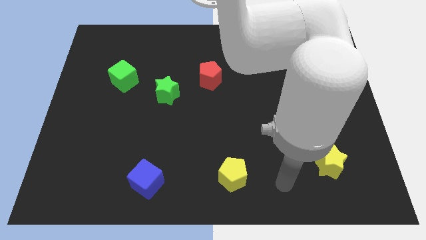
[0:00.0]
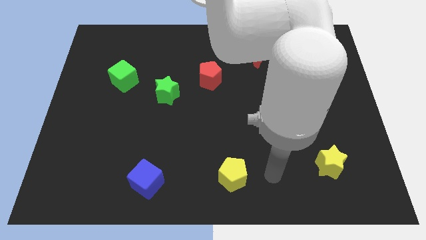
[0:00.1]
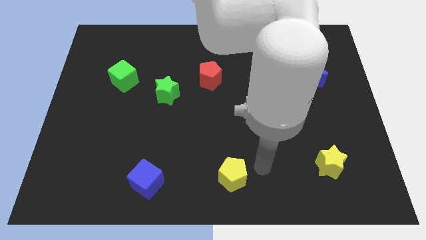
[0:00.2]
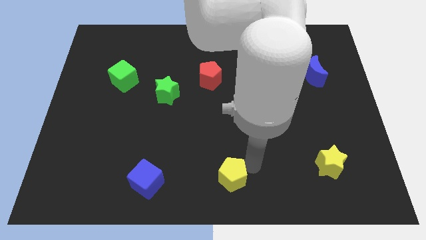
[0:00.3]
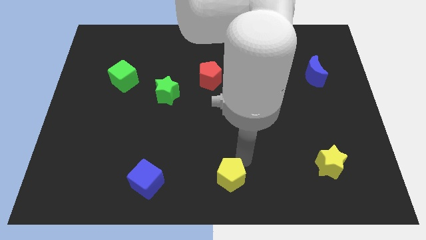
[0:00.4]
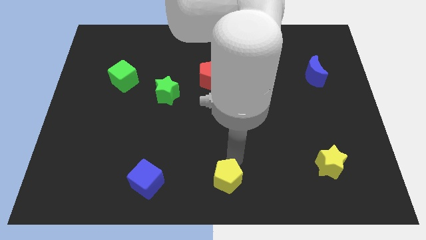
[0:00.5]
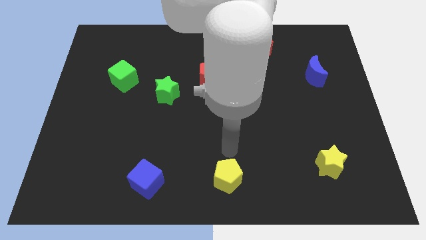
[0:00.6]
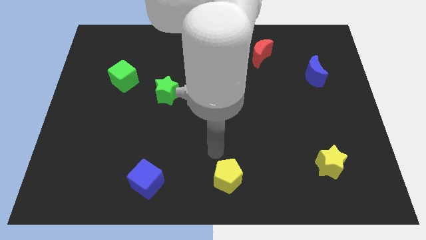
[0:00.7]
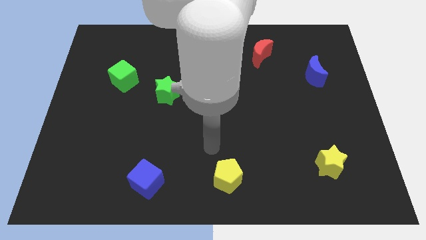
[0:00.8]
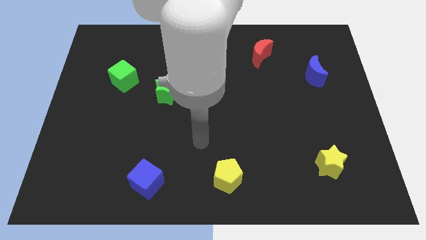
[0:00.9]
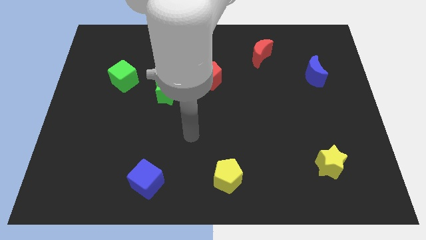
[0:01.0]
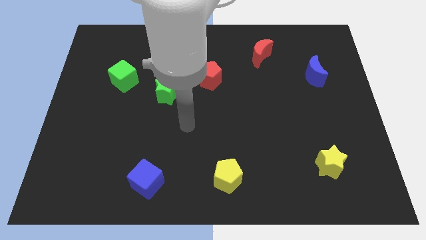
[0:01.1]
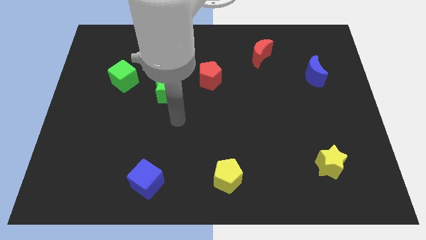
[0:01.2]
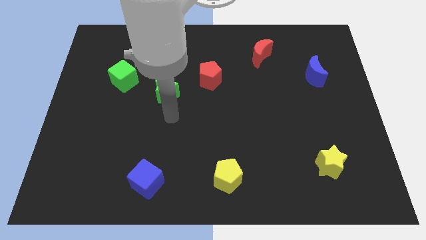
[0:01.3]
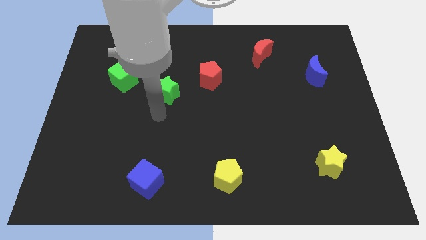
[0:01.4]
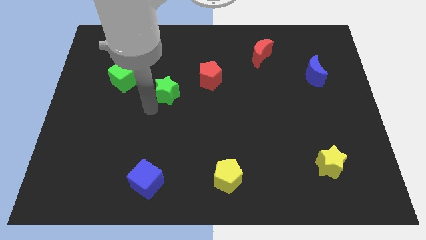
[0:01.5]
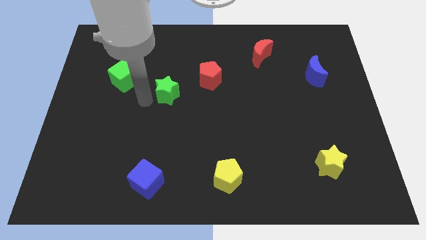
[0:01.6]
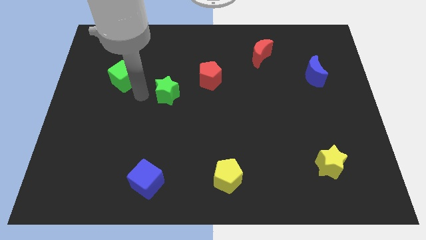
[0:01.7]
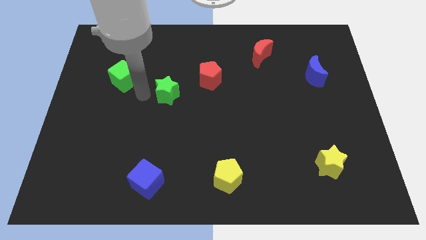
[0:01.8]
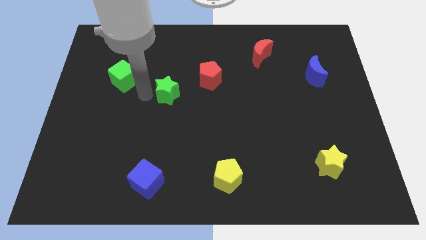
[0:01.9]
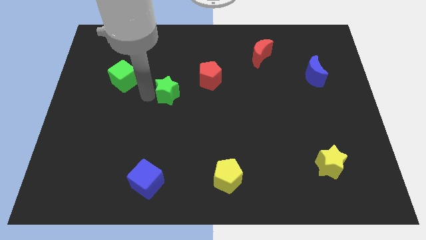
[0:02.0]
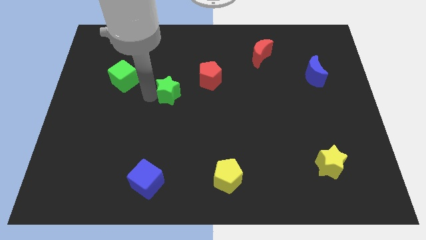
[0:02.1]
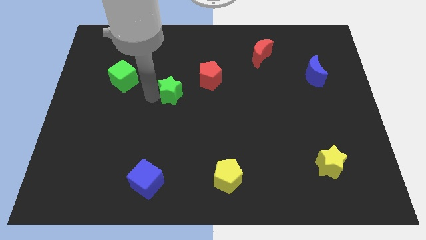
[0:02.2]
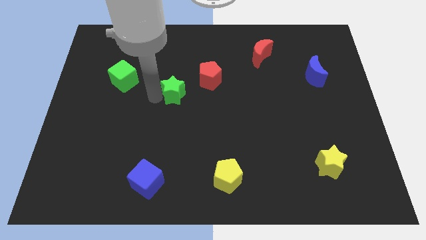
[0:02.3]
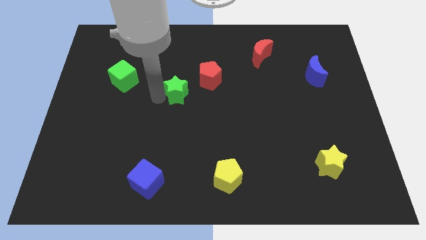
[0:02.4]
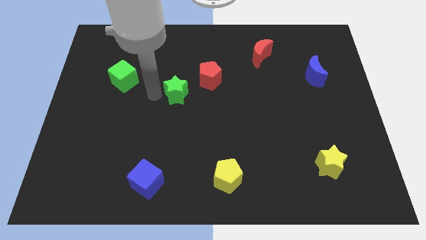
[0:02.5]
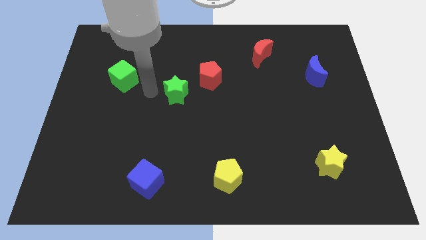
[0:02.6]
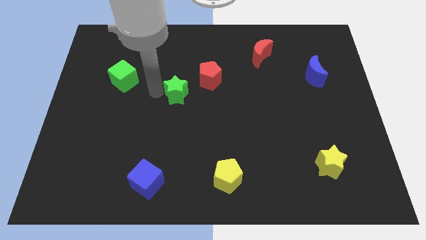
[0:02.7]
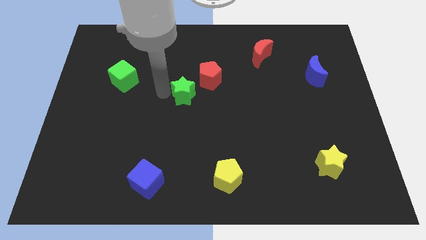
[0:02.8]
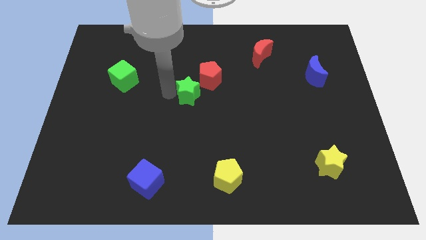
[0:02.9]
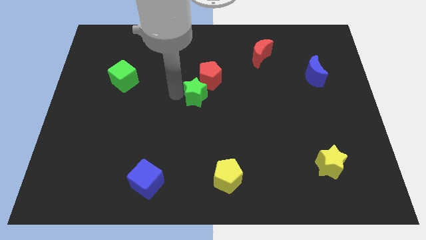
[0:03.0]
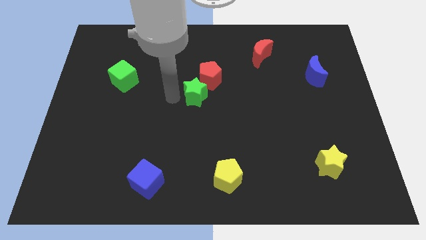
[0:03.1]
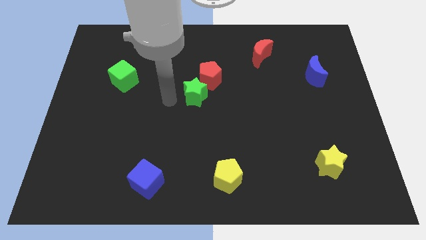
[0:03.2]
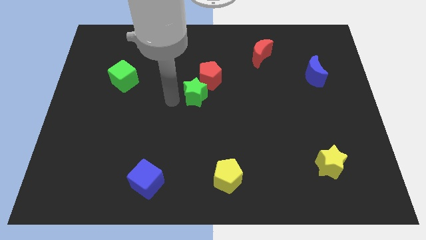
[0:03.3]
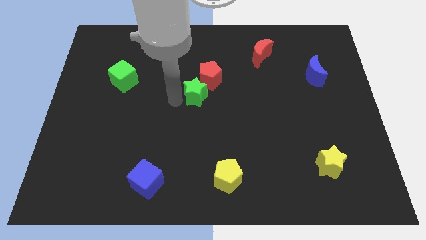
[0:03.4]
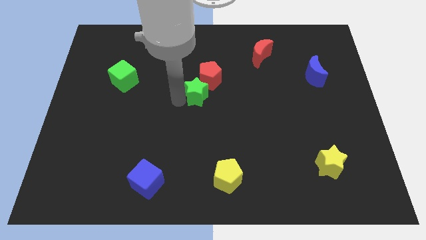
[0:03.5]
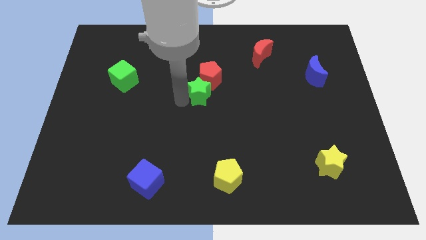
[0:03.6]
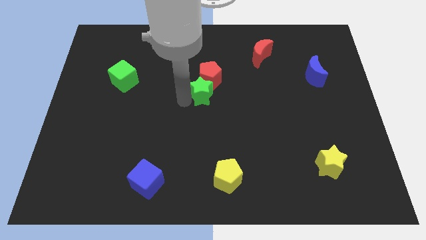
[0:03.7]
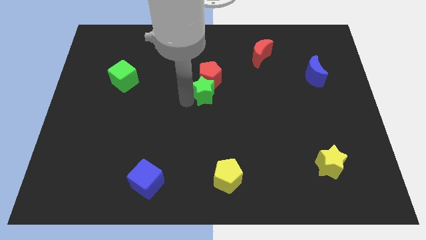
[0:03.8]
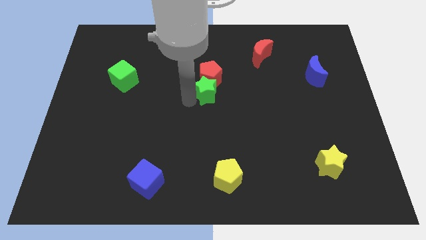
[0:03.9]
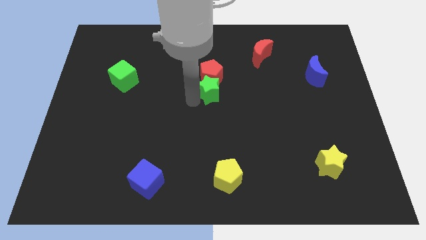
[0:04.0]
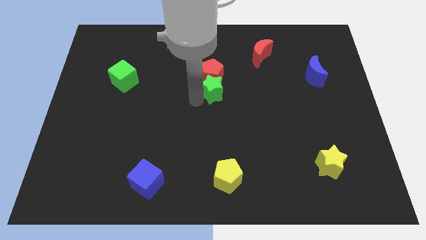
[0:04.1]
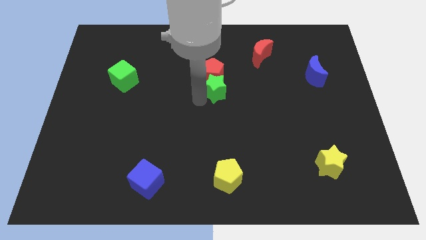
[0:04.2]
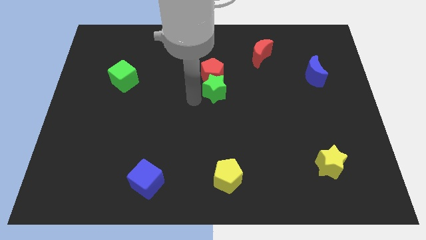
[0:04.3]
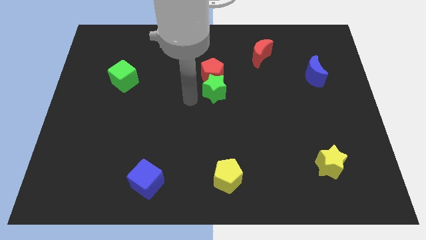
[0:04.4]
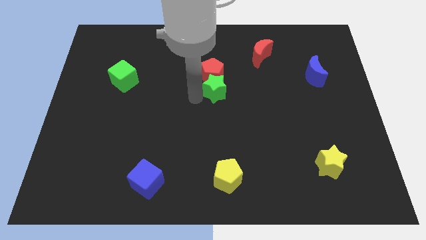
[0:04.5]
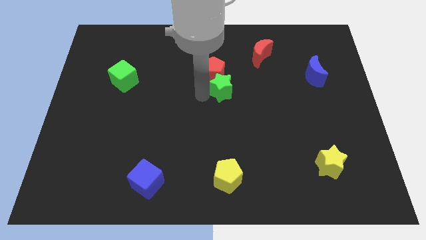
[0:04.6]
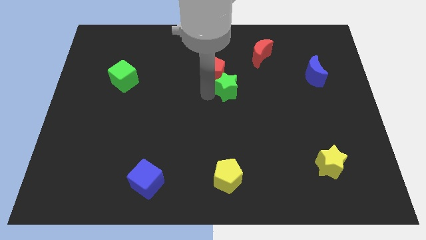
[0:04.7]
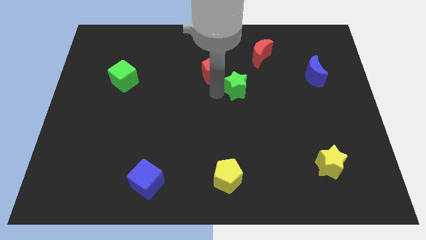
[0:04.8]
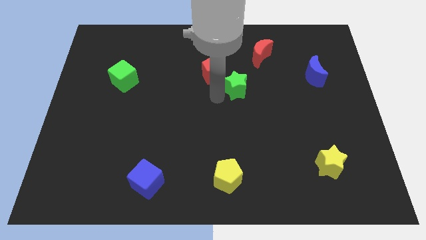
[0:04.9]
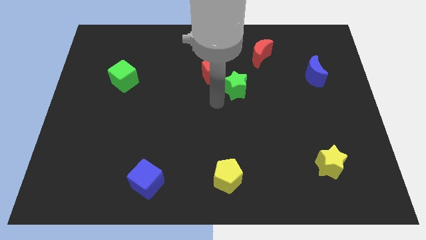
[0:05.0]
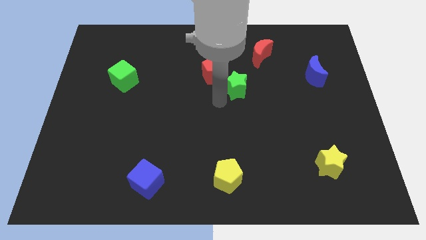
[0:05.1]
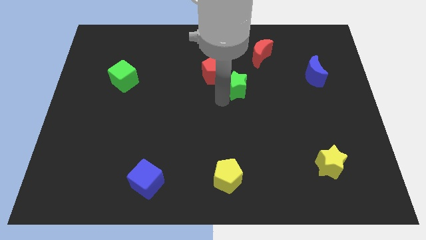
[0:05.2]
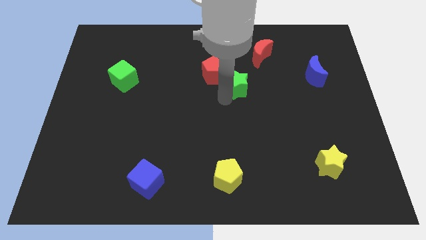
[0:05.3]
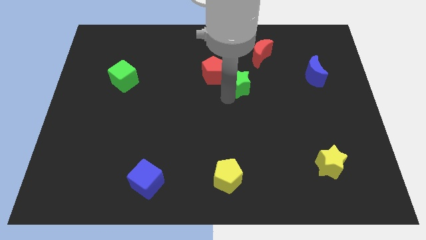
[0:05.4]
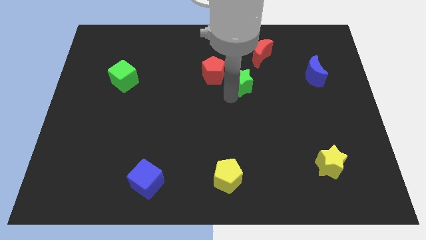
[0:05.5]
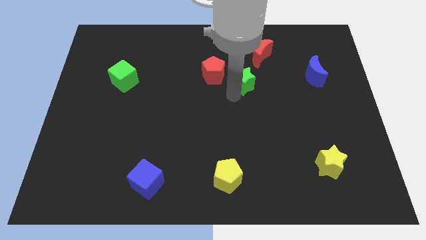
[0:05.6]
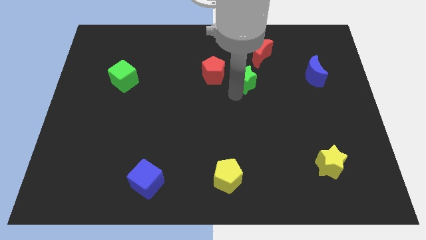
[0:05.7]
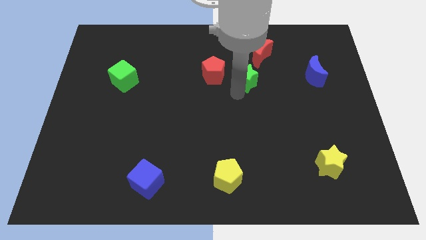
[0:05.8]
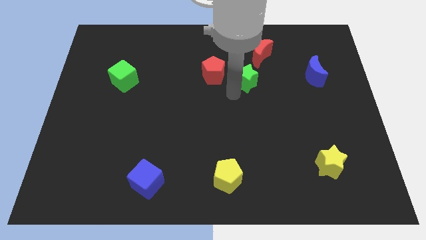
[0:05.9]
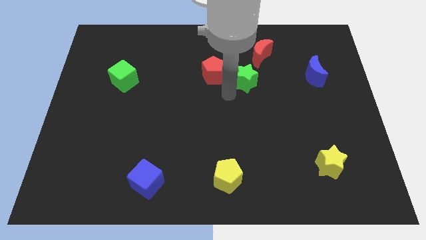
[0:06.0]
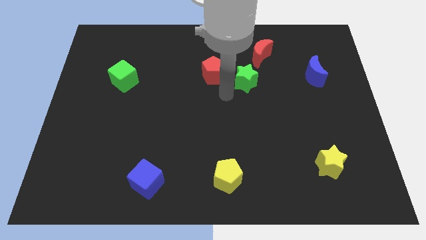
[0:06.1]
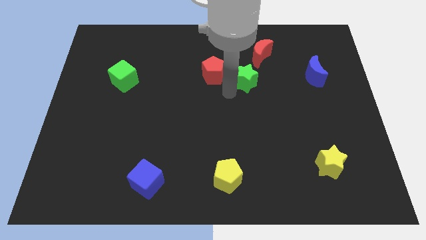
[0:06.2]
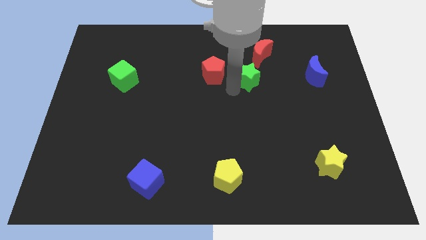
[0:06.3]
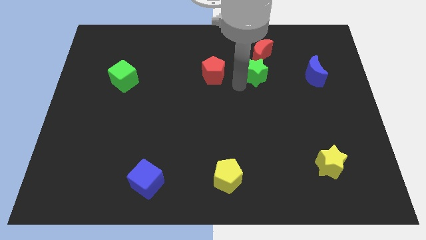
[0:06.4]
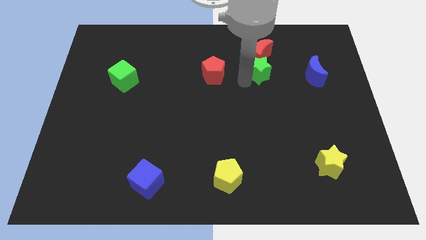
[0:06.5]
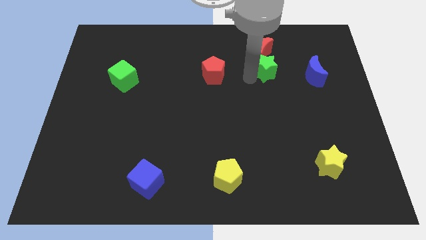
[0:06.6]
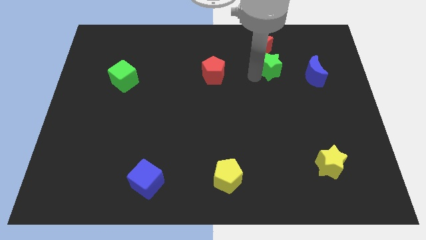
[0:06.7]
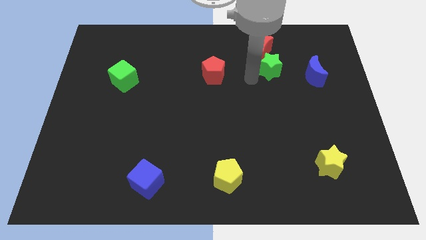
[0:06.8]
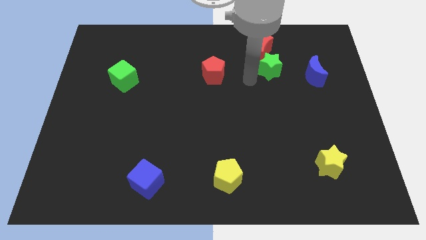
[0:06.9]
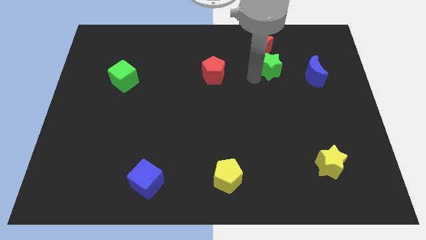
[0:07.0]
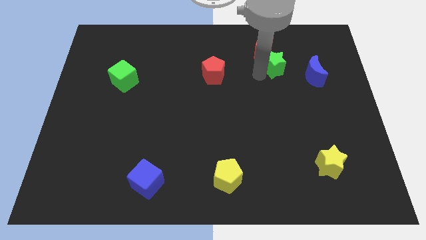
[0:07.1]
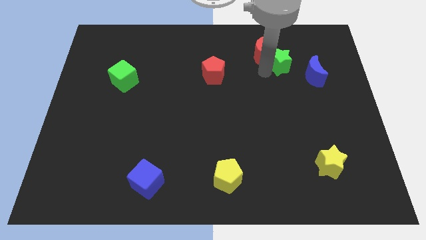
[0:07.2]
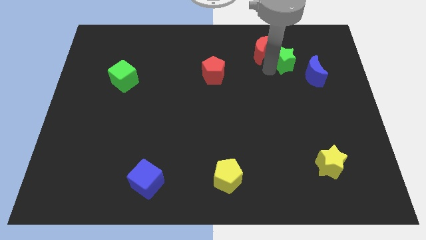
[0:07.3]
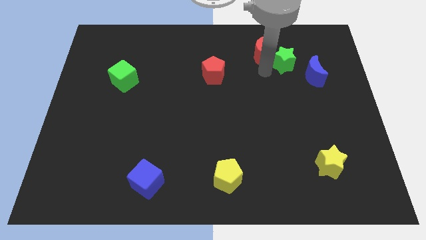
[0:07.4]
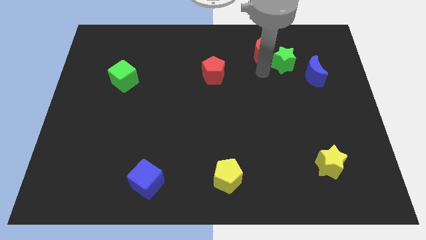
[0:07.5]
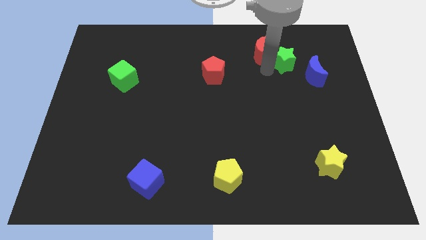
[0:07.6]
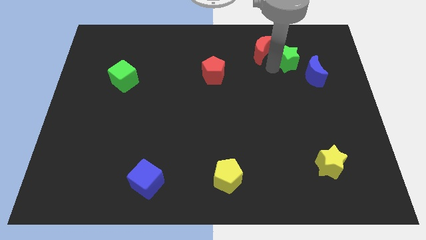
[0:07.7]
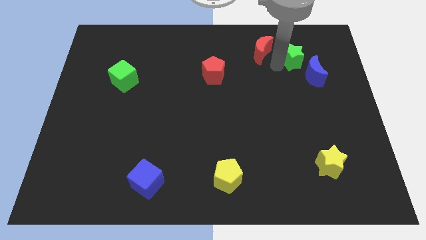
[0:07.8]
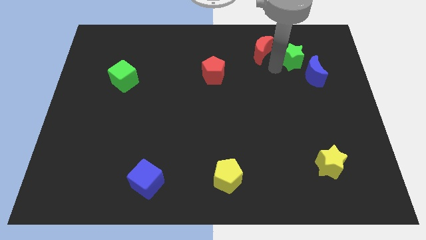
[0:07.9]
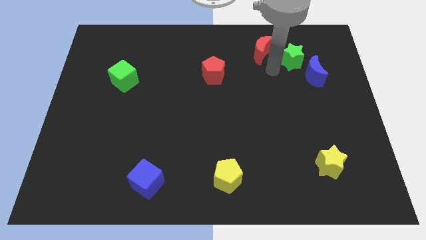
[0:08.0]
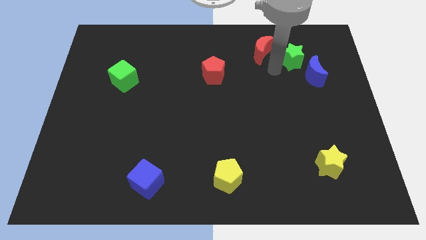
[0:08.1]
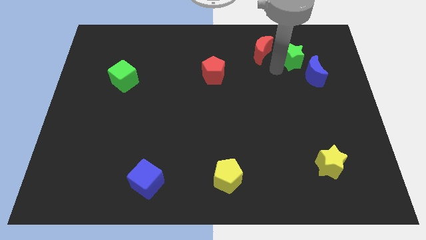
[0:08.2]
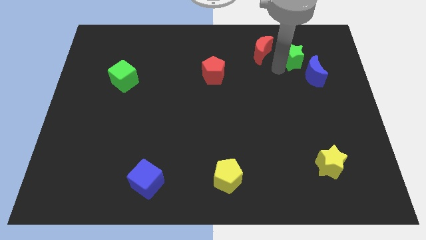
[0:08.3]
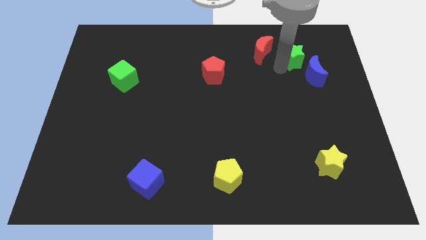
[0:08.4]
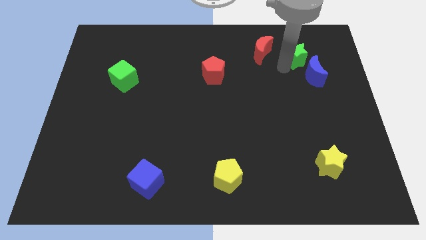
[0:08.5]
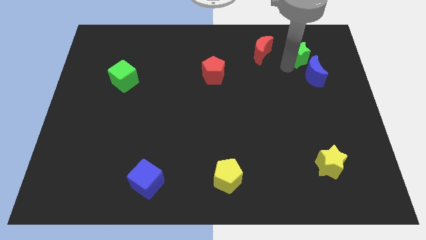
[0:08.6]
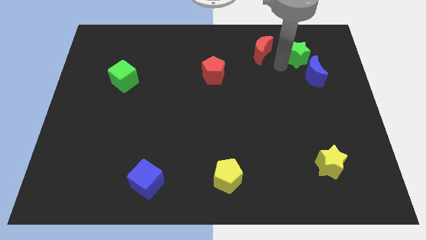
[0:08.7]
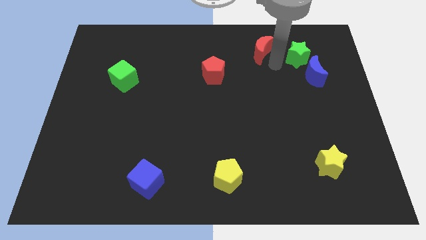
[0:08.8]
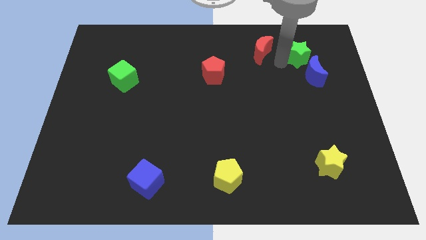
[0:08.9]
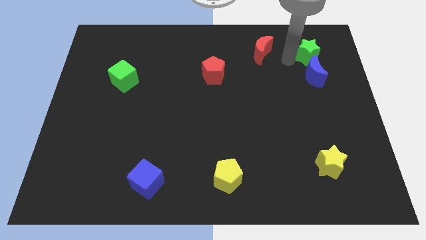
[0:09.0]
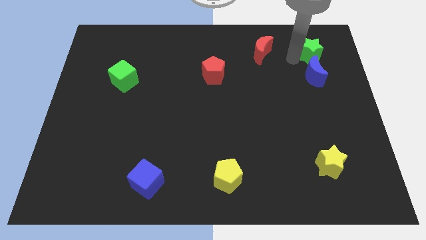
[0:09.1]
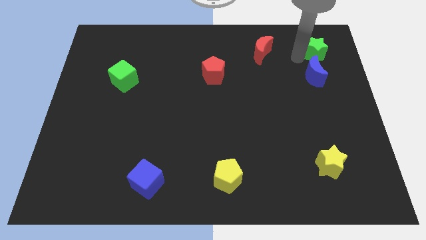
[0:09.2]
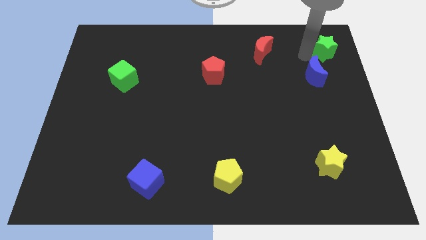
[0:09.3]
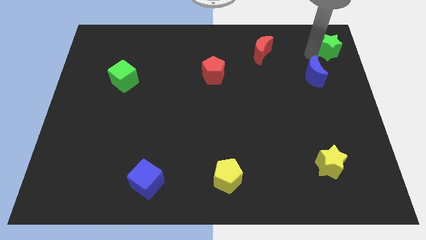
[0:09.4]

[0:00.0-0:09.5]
push the green star to the top right of the board
